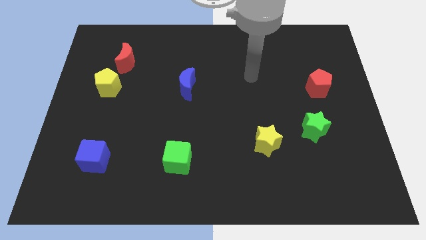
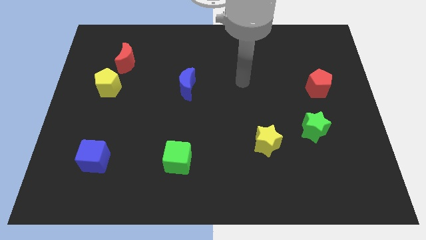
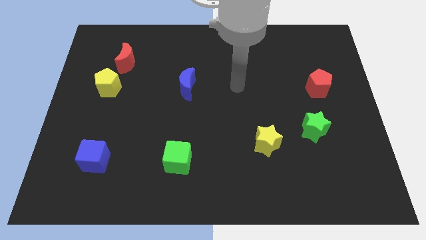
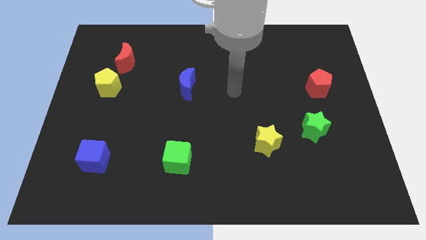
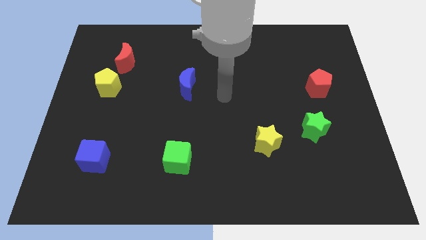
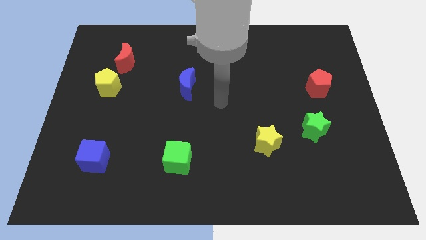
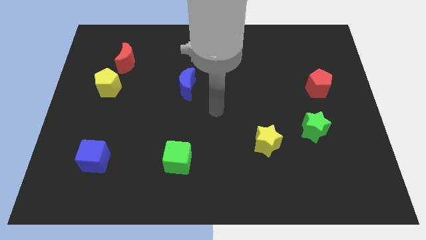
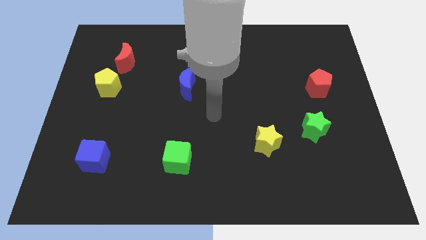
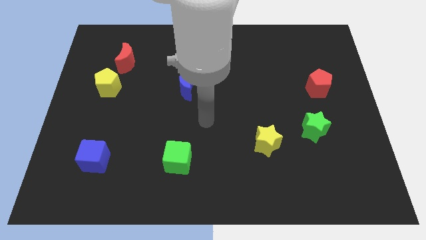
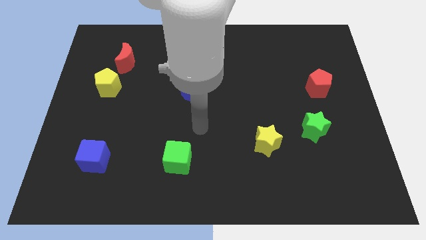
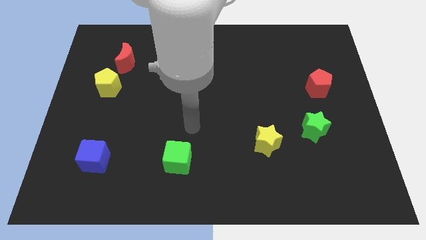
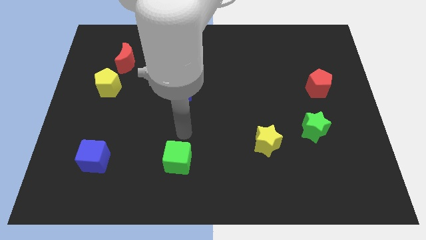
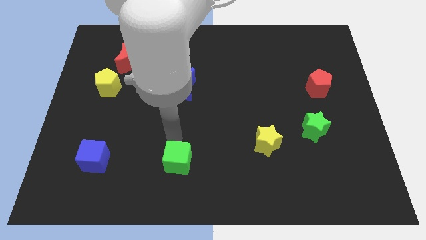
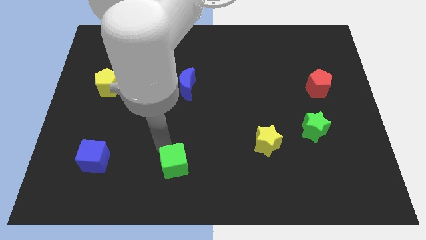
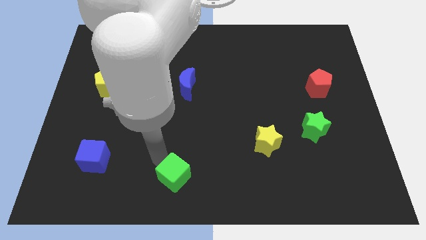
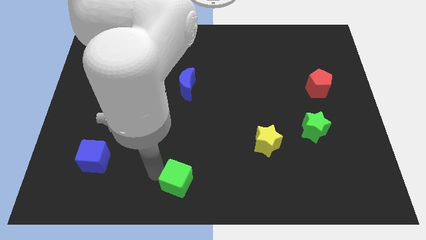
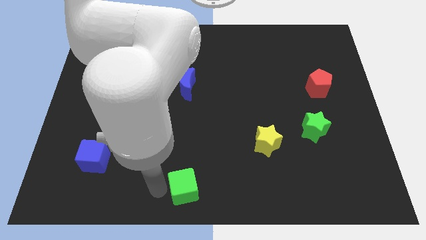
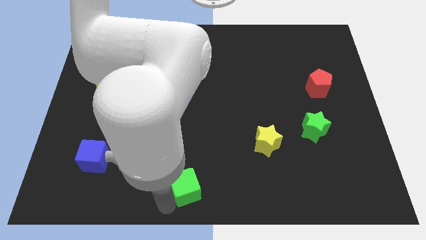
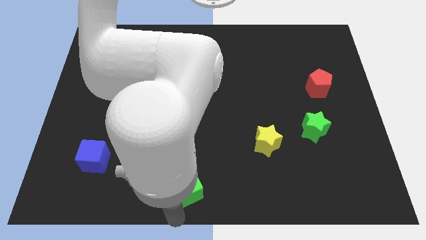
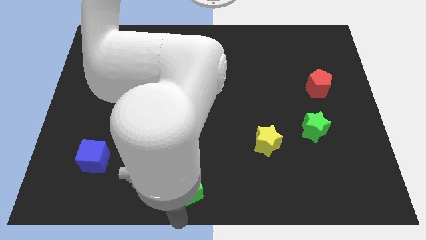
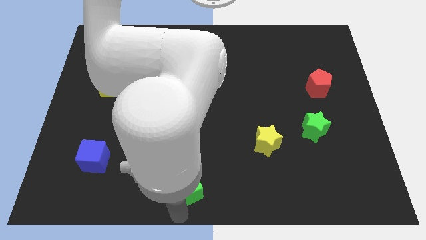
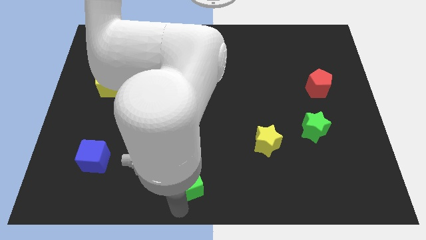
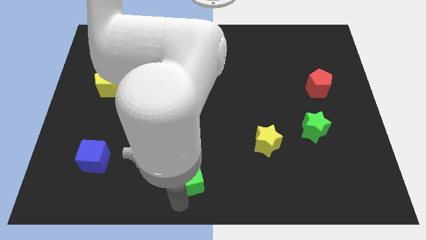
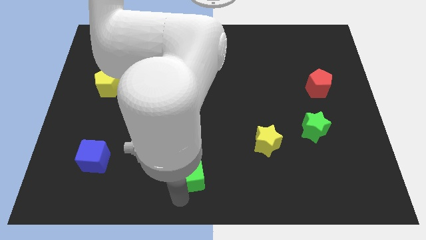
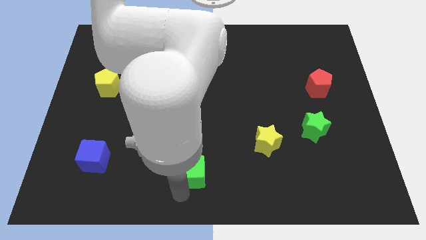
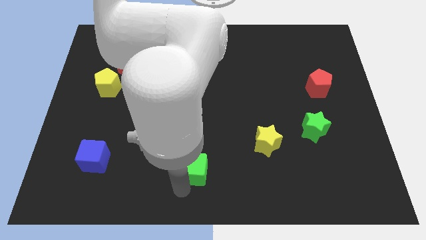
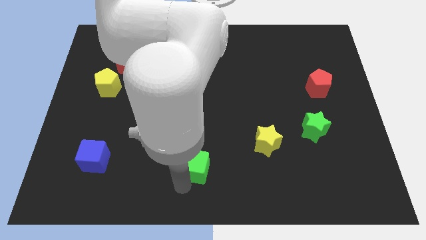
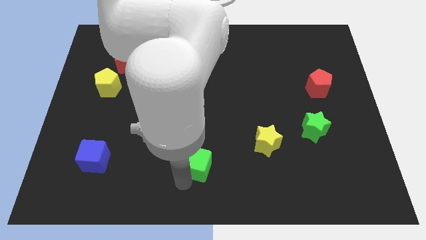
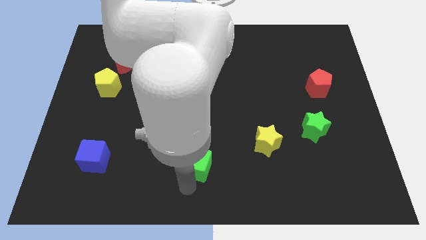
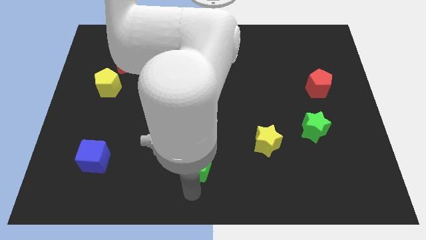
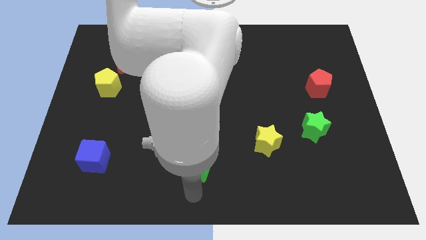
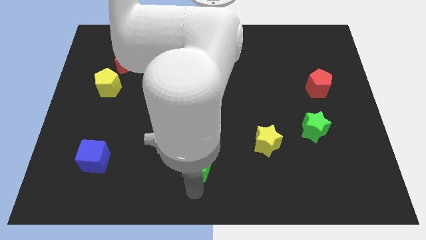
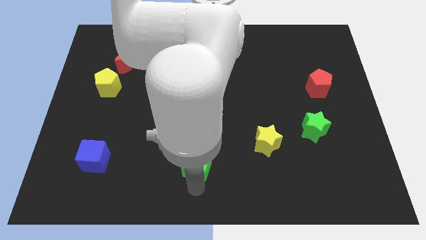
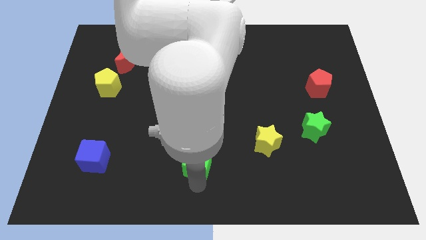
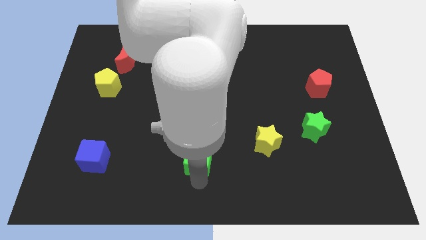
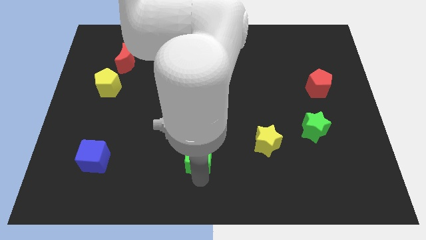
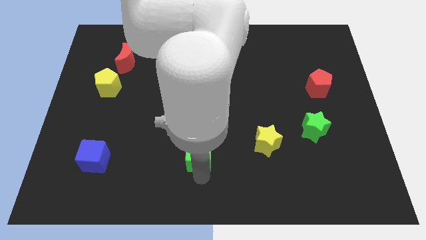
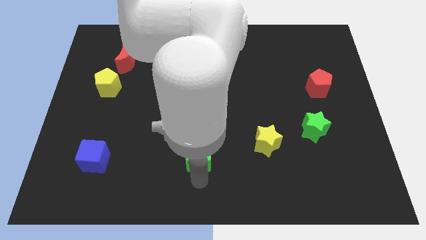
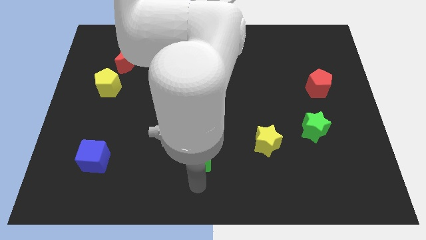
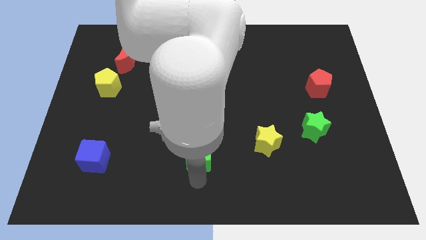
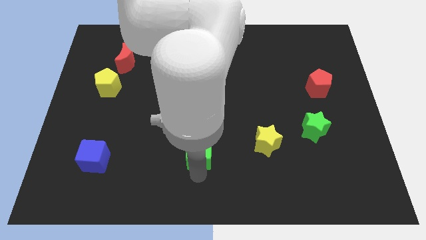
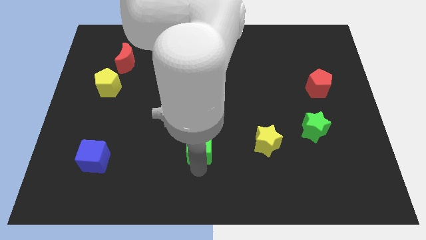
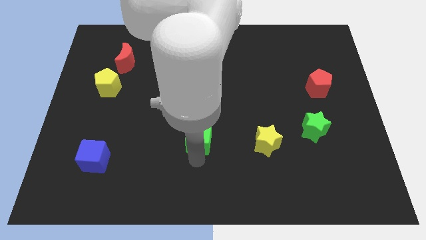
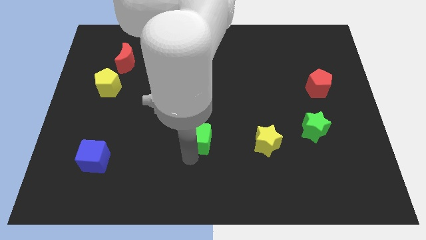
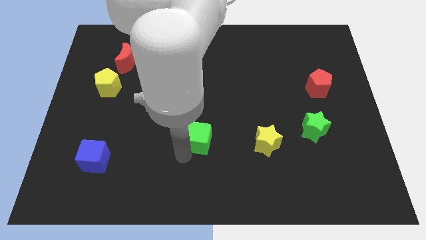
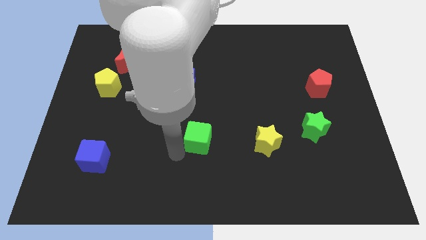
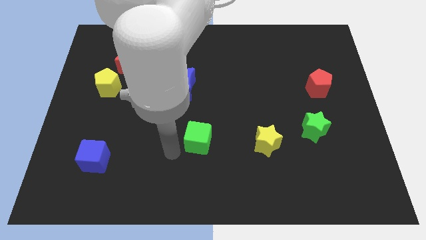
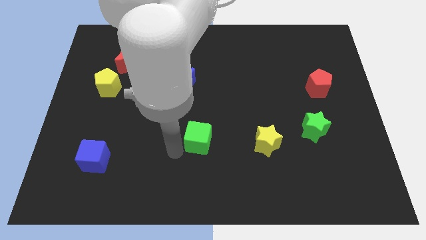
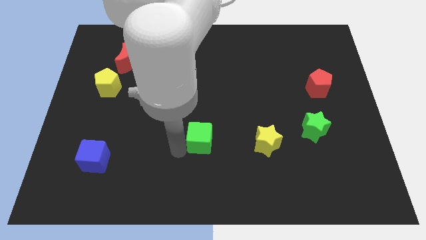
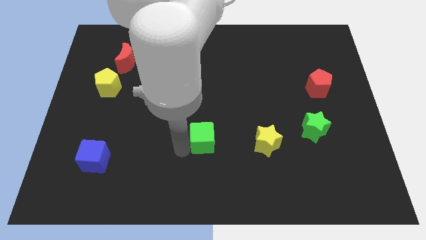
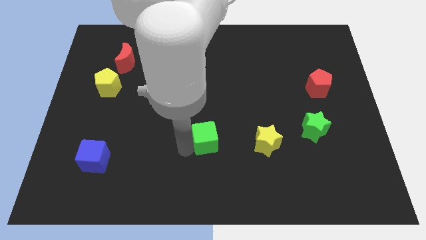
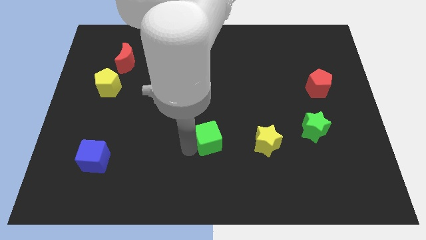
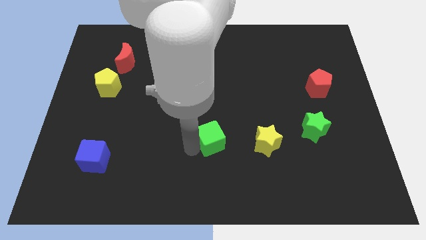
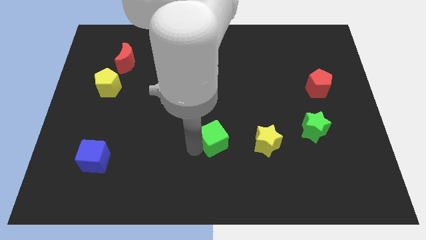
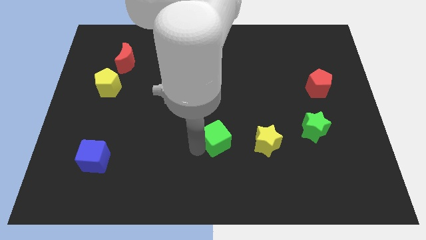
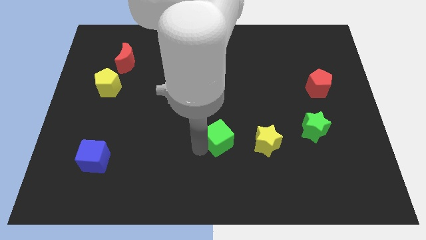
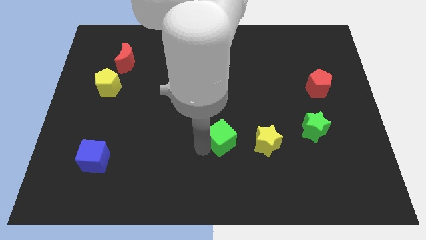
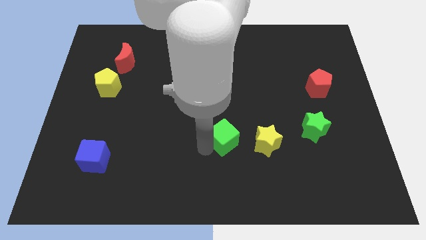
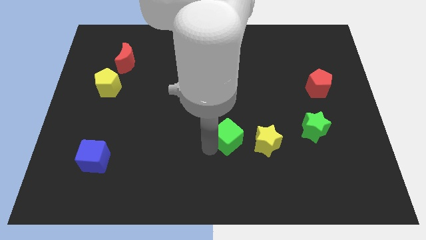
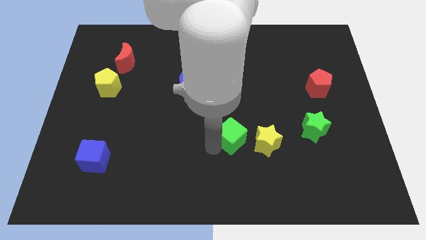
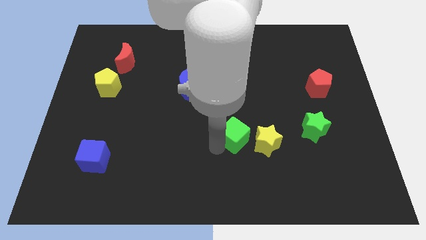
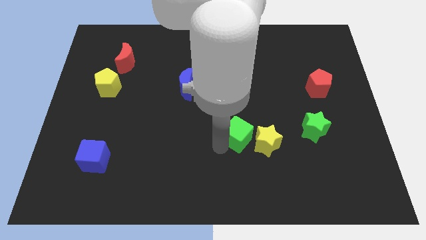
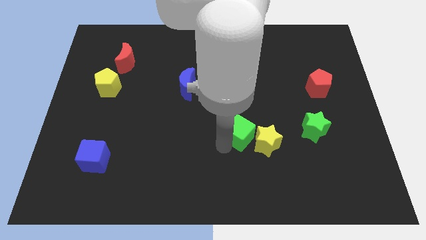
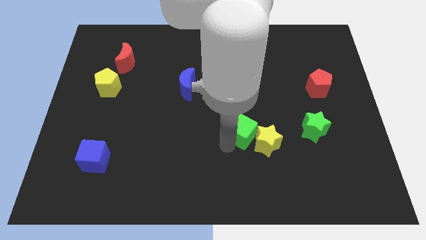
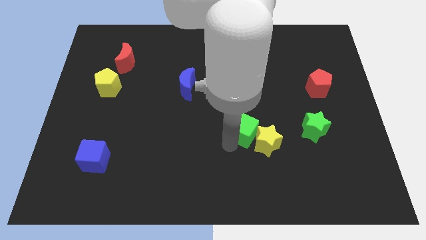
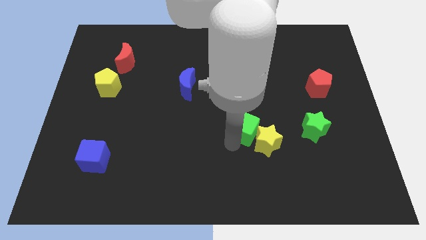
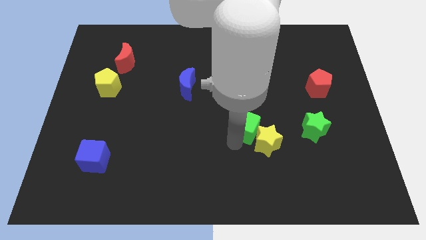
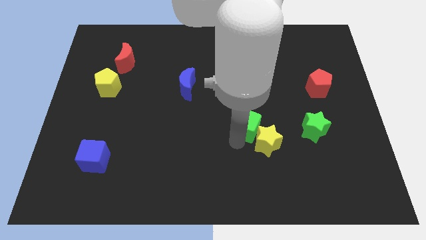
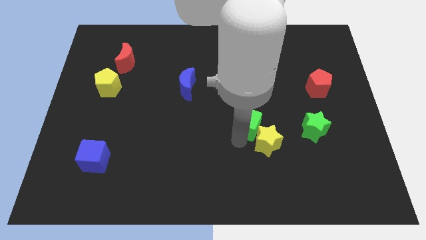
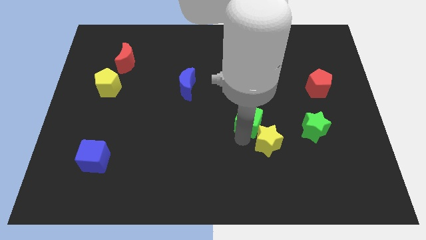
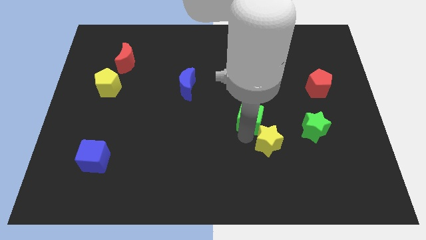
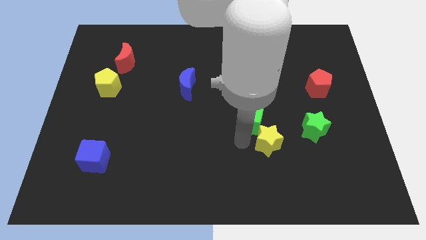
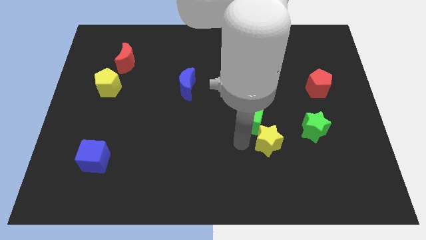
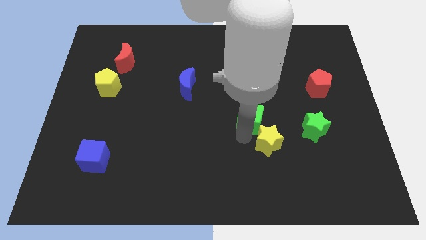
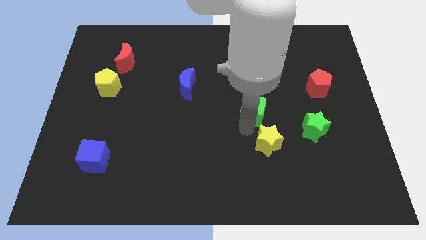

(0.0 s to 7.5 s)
slide the green cube upwards and right

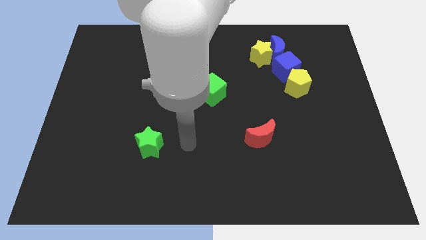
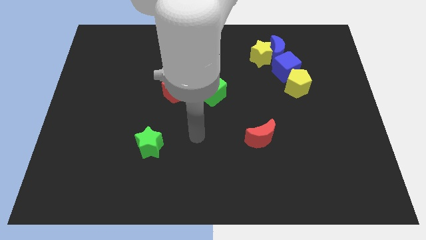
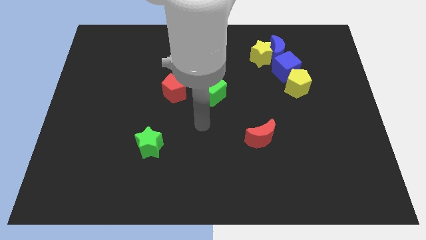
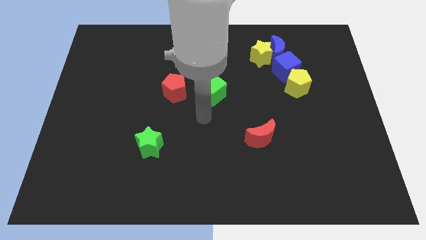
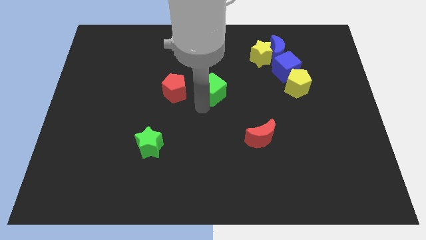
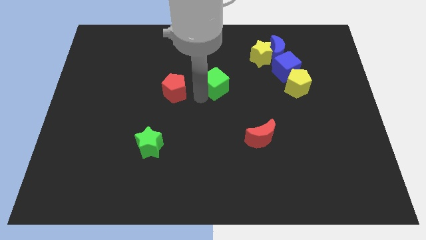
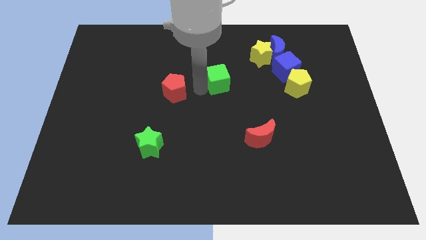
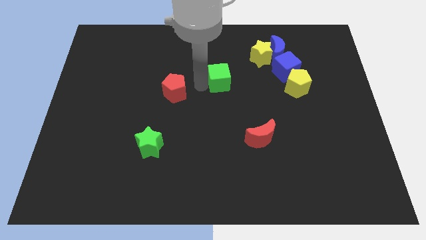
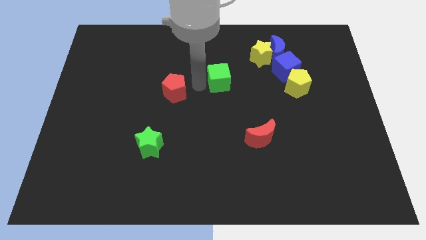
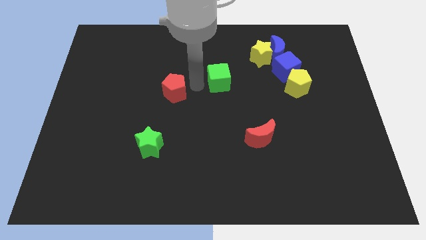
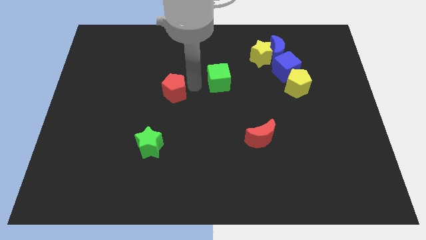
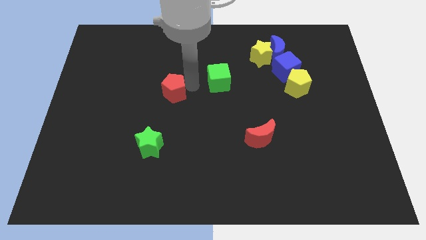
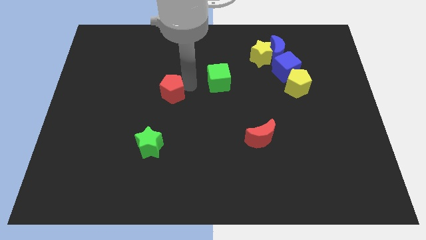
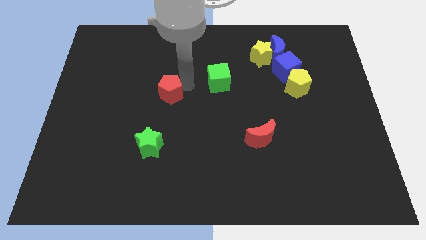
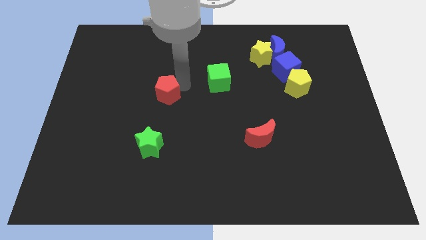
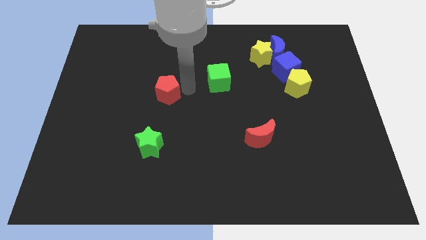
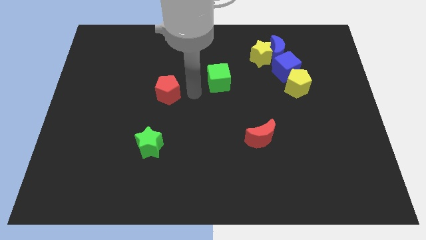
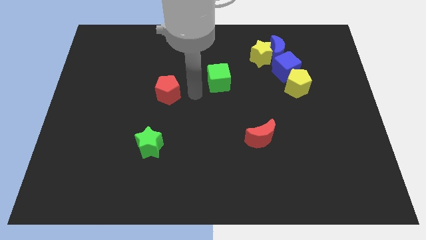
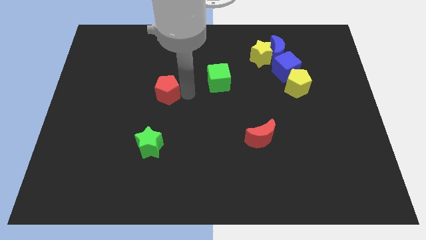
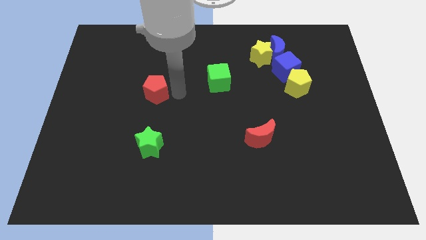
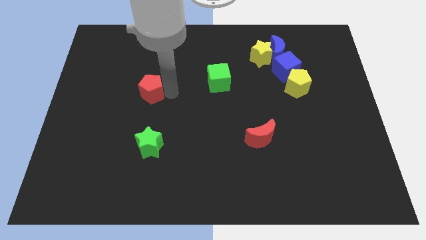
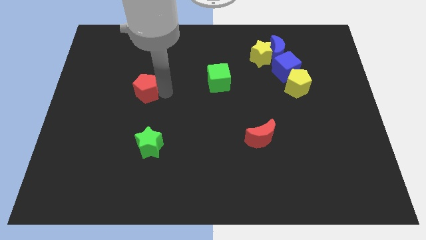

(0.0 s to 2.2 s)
slightly push the red pentagon left
